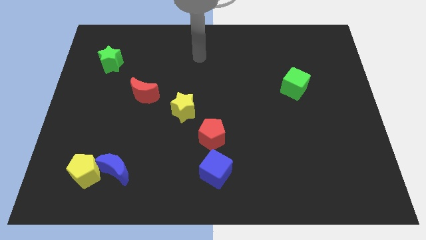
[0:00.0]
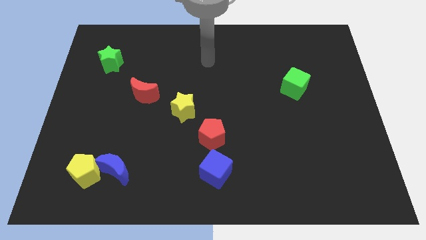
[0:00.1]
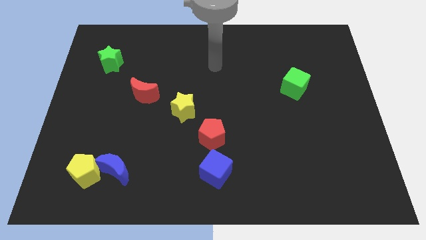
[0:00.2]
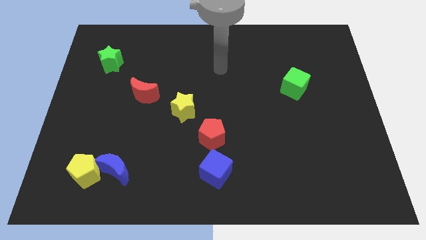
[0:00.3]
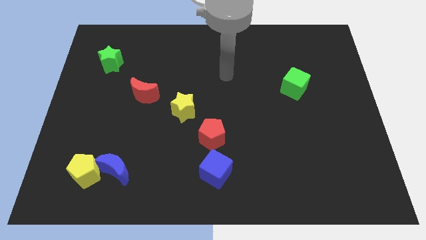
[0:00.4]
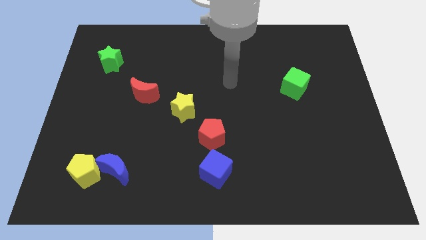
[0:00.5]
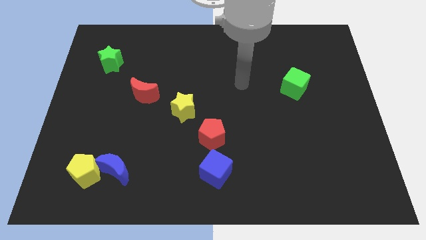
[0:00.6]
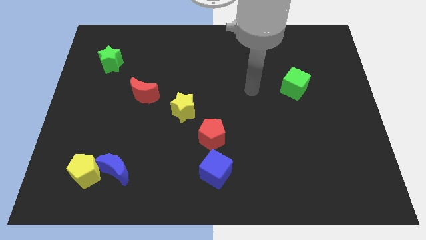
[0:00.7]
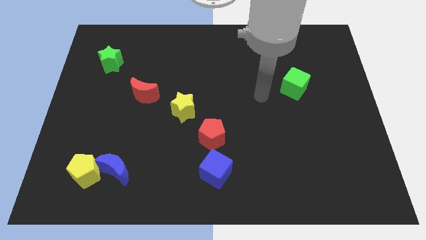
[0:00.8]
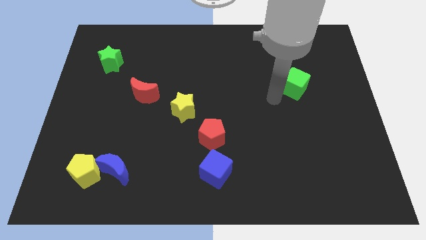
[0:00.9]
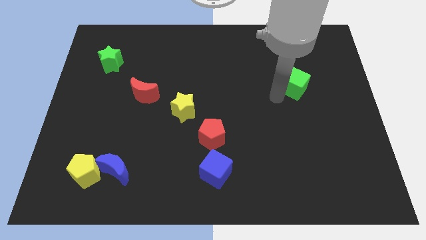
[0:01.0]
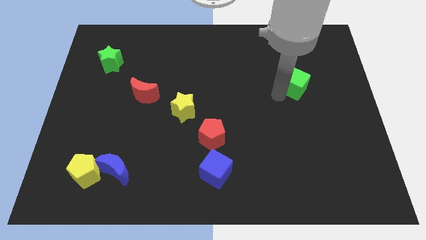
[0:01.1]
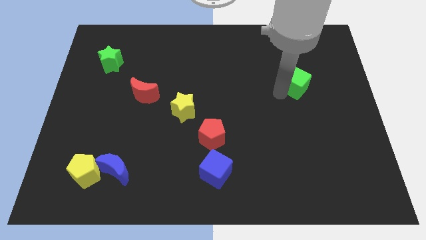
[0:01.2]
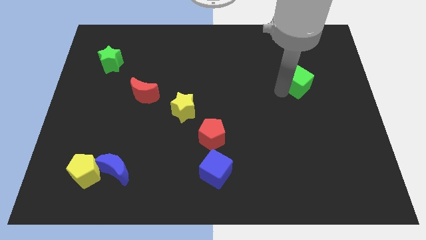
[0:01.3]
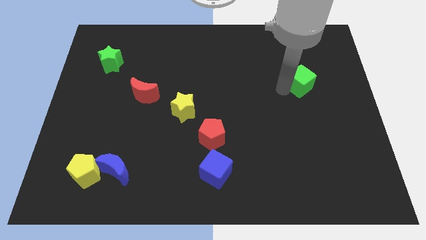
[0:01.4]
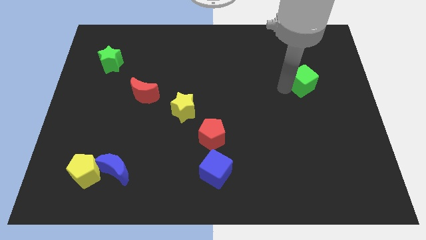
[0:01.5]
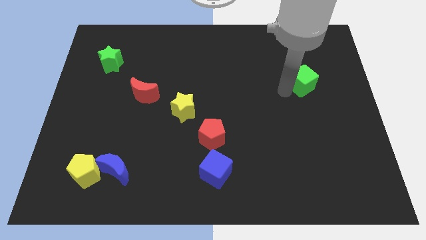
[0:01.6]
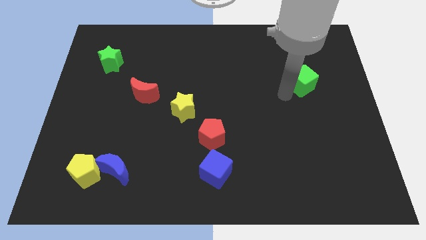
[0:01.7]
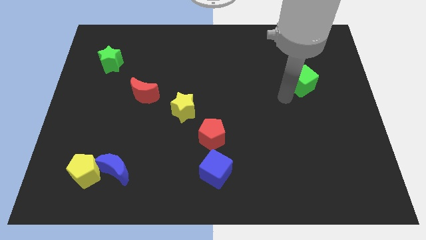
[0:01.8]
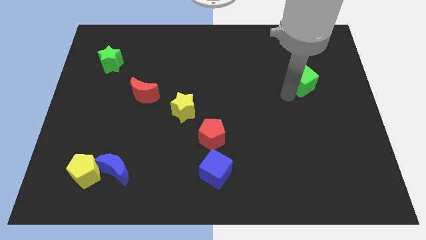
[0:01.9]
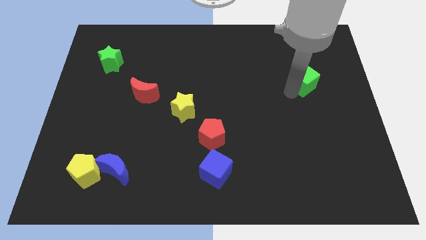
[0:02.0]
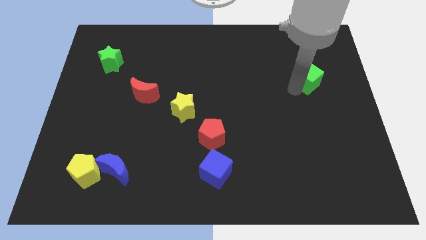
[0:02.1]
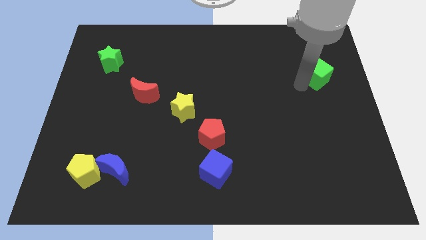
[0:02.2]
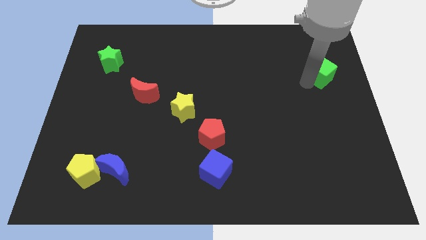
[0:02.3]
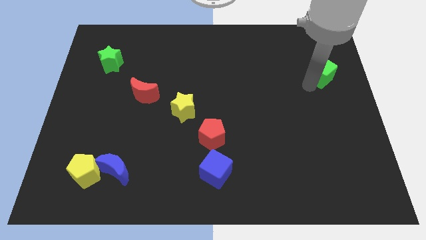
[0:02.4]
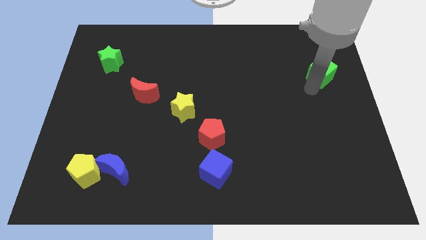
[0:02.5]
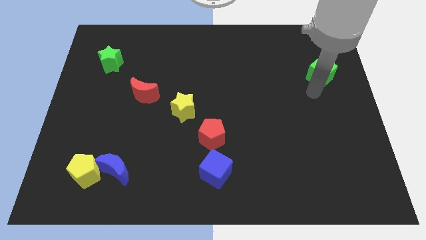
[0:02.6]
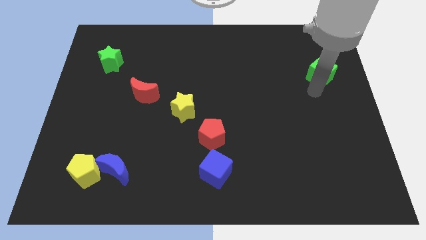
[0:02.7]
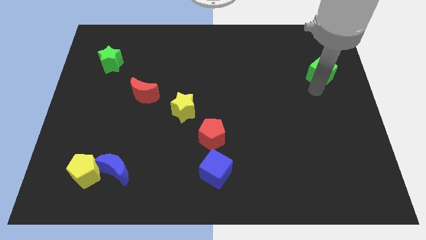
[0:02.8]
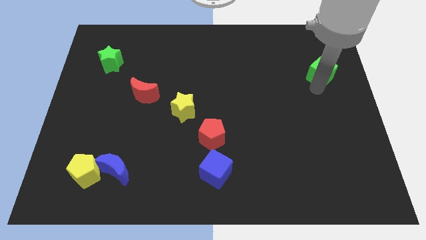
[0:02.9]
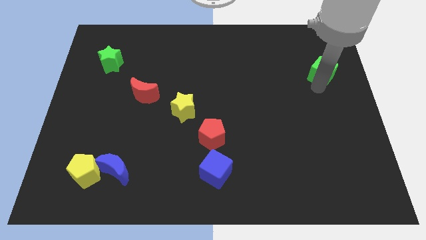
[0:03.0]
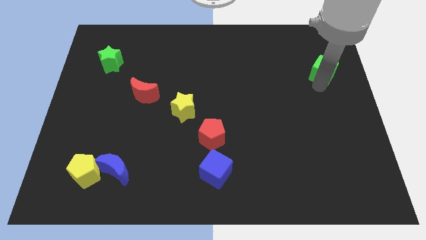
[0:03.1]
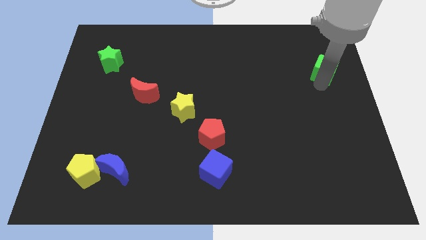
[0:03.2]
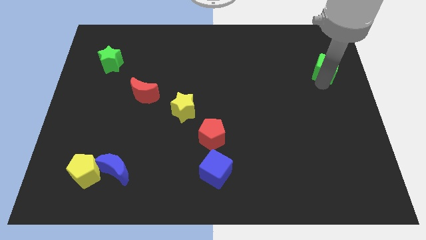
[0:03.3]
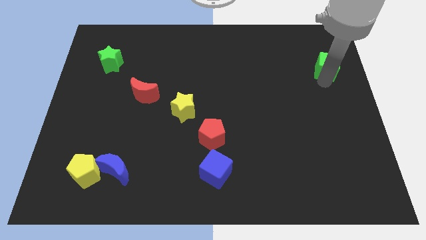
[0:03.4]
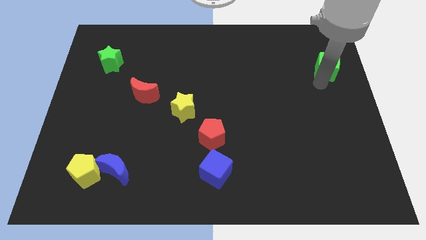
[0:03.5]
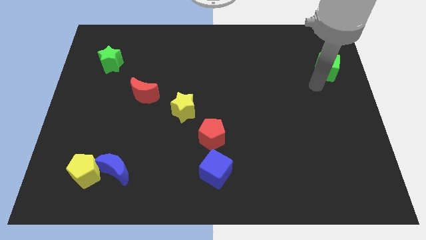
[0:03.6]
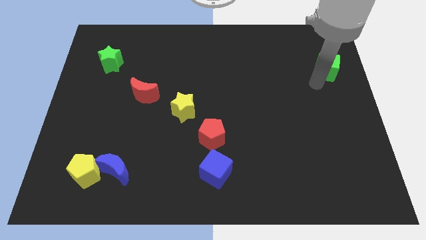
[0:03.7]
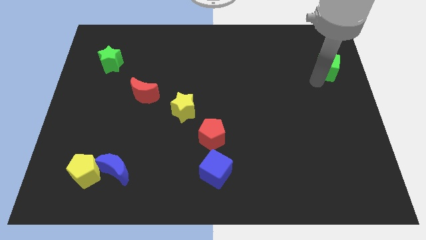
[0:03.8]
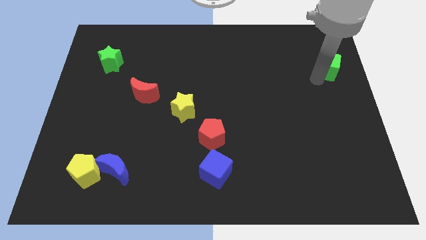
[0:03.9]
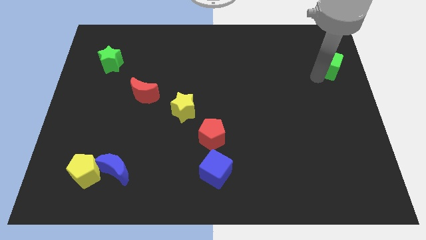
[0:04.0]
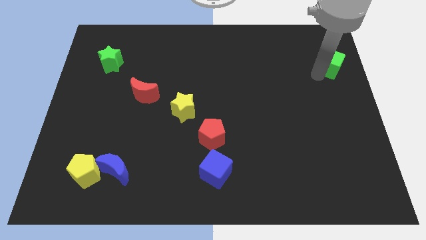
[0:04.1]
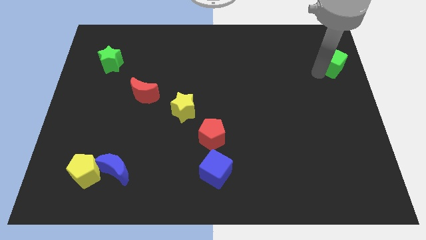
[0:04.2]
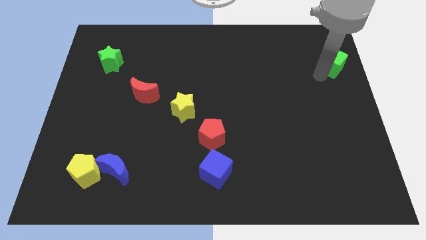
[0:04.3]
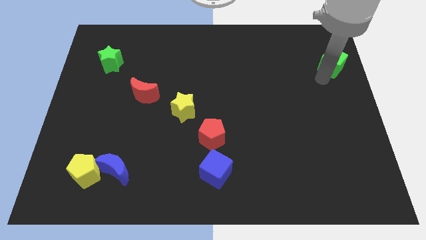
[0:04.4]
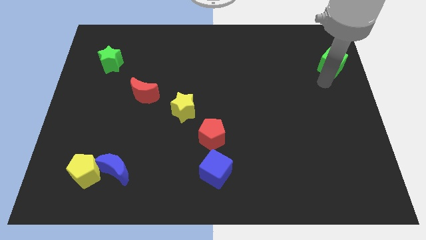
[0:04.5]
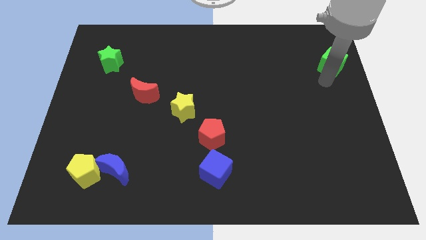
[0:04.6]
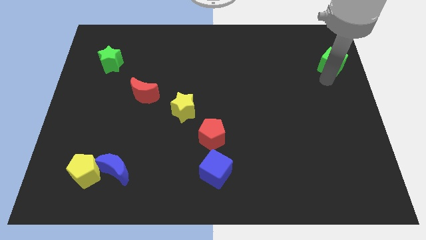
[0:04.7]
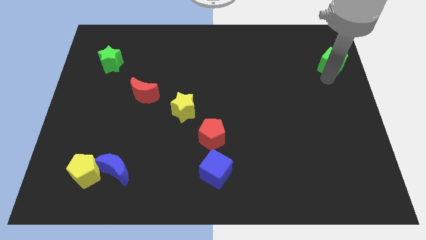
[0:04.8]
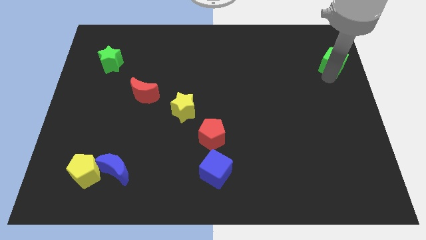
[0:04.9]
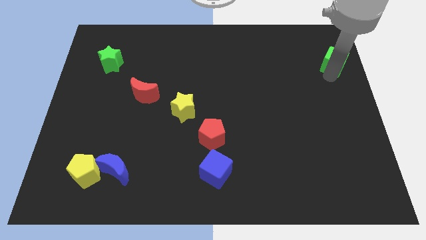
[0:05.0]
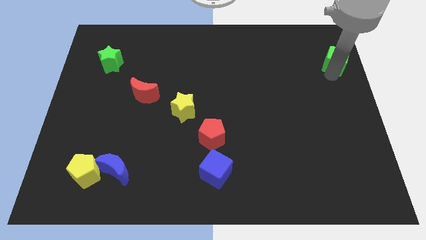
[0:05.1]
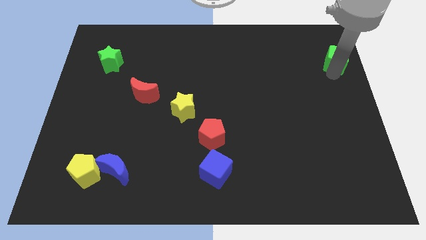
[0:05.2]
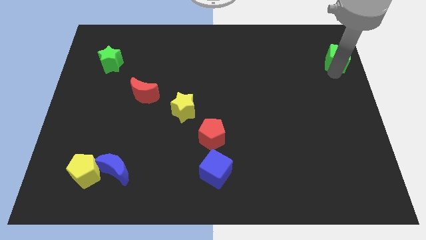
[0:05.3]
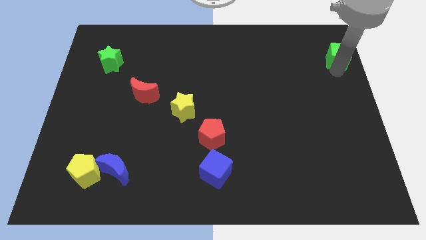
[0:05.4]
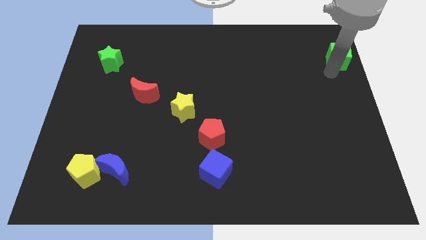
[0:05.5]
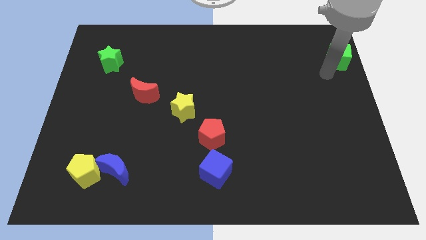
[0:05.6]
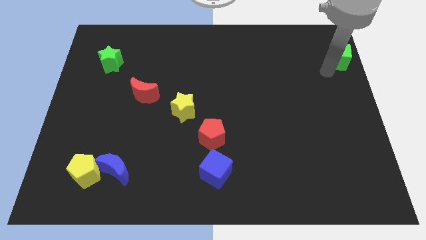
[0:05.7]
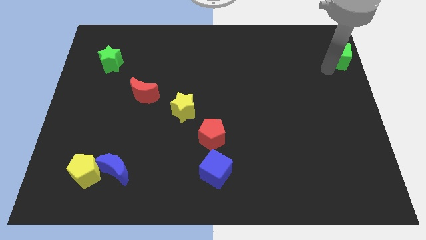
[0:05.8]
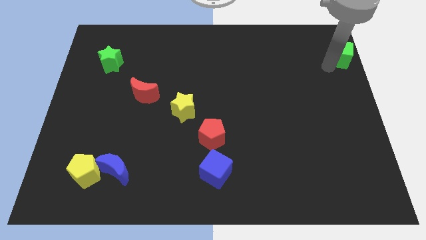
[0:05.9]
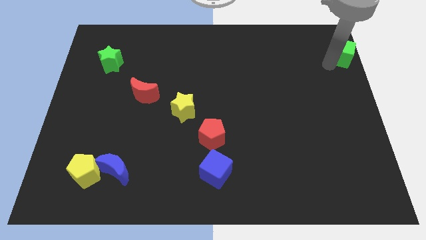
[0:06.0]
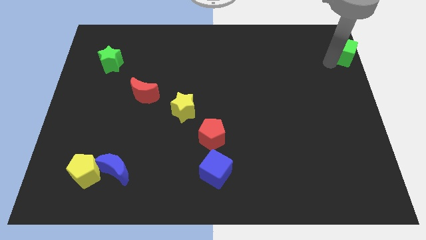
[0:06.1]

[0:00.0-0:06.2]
push the green cube to the top right corner
